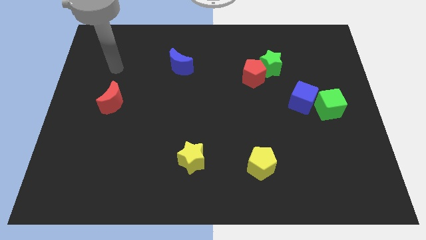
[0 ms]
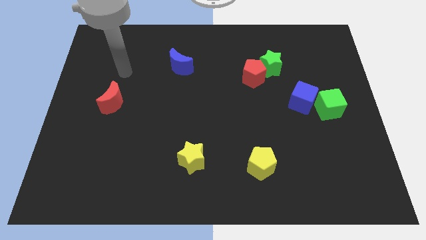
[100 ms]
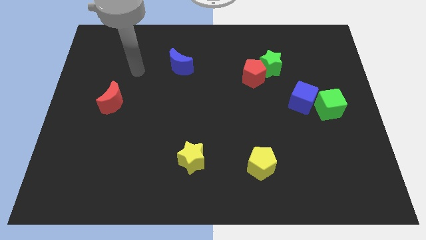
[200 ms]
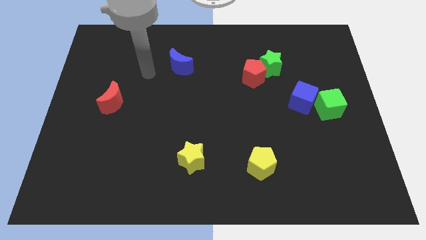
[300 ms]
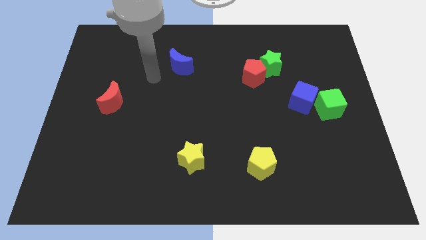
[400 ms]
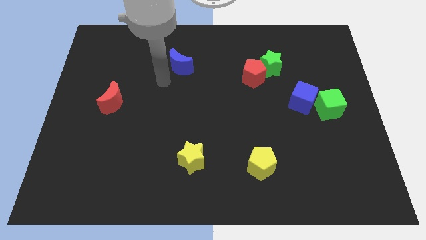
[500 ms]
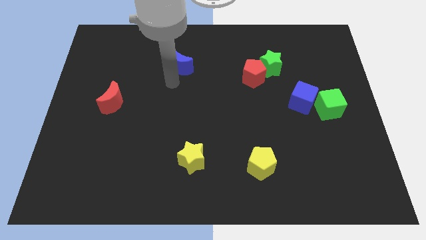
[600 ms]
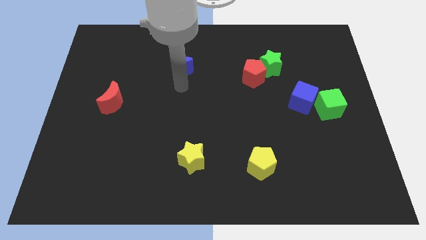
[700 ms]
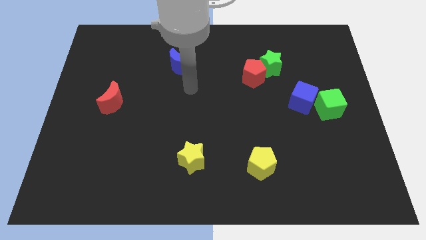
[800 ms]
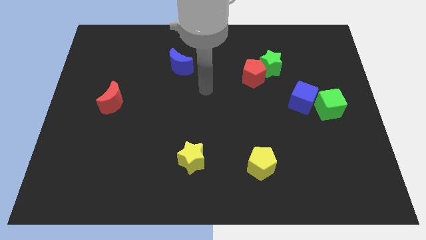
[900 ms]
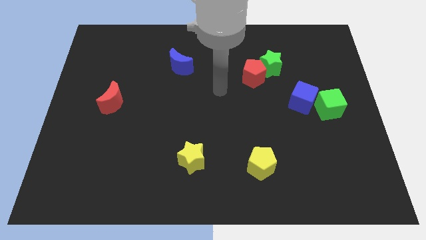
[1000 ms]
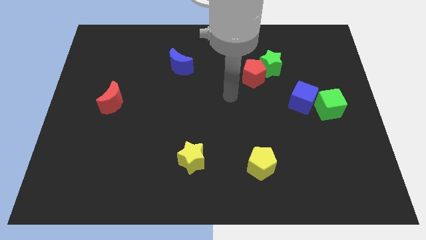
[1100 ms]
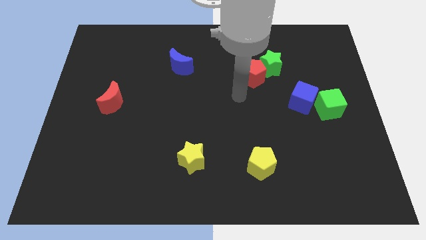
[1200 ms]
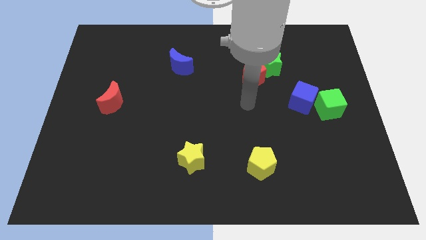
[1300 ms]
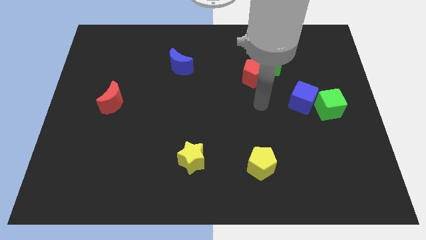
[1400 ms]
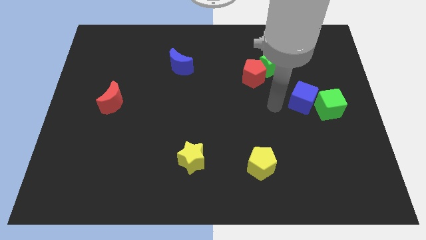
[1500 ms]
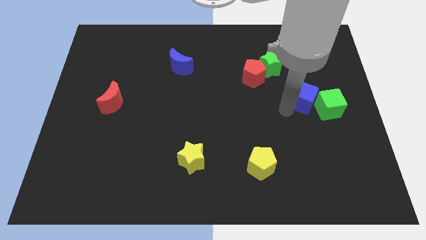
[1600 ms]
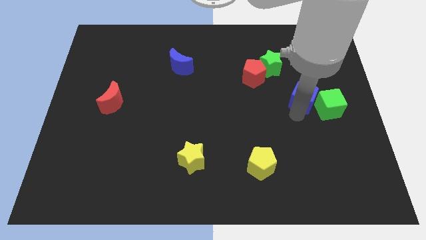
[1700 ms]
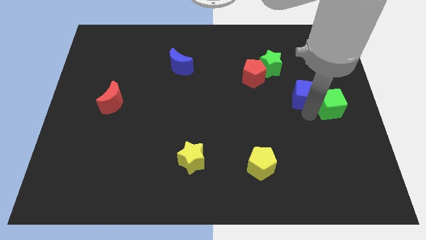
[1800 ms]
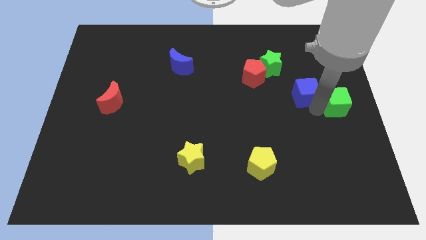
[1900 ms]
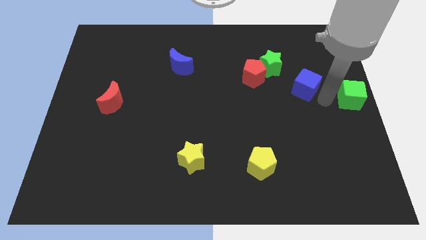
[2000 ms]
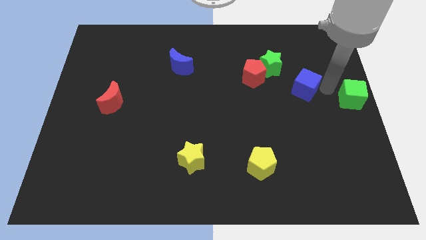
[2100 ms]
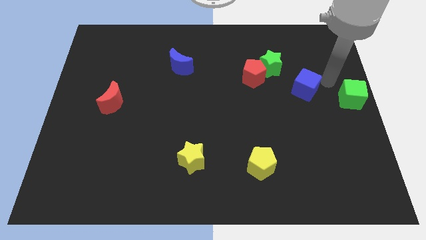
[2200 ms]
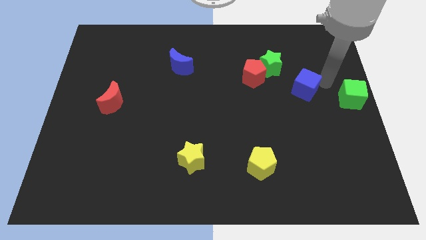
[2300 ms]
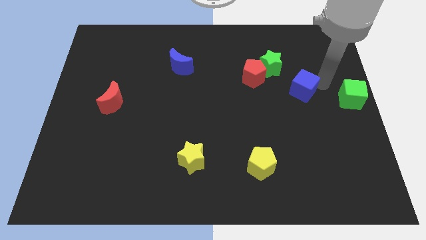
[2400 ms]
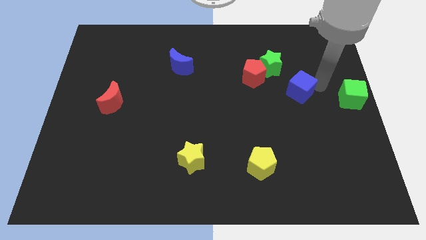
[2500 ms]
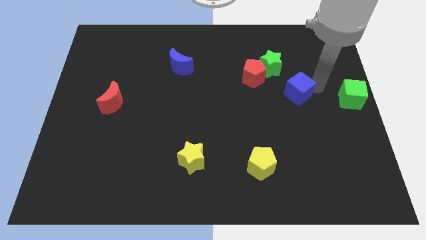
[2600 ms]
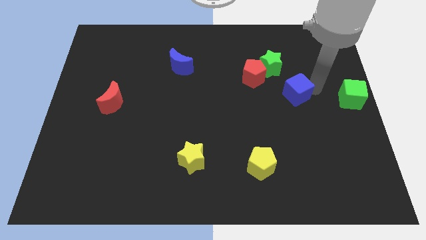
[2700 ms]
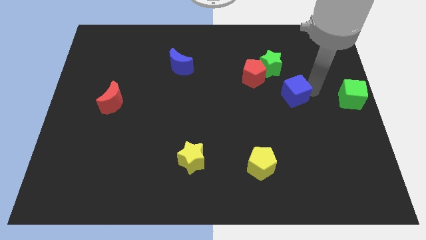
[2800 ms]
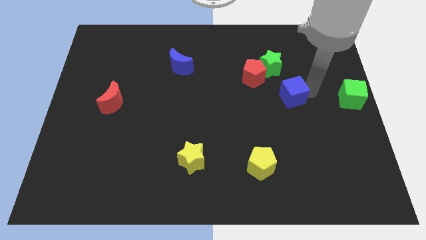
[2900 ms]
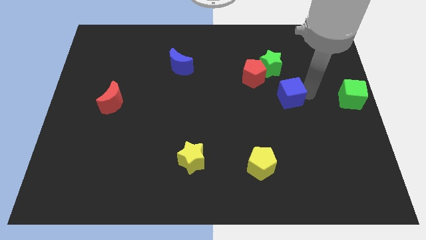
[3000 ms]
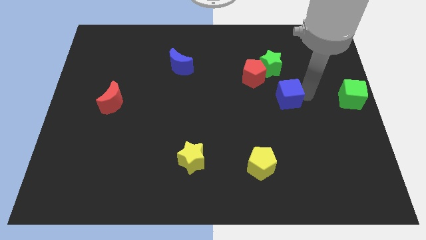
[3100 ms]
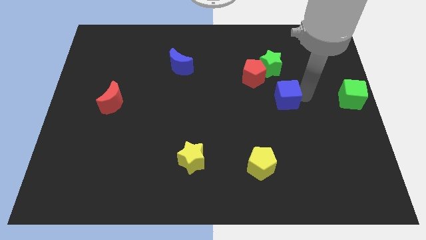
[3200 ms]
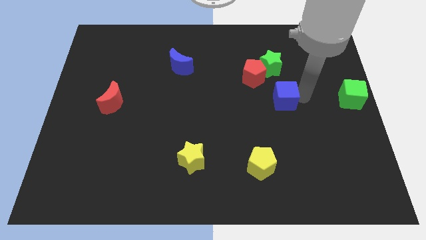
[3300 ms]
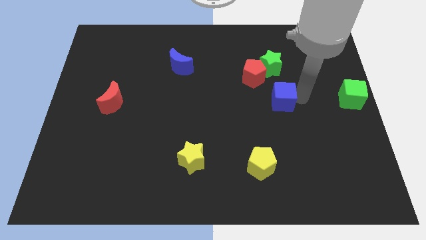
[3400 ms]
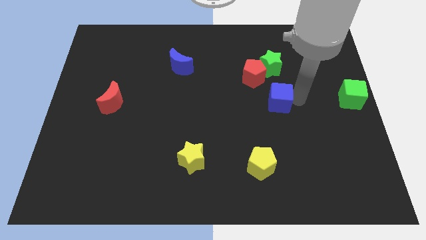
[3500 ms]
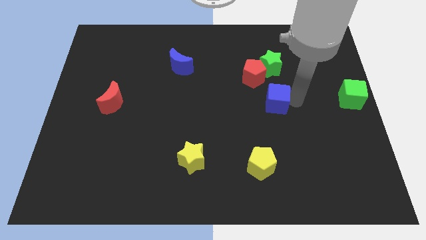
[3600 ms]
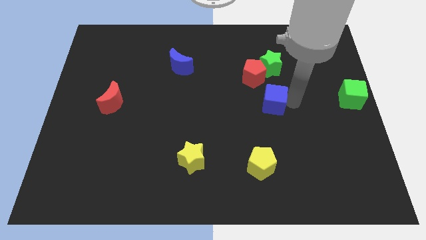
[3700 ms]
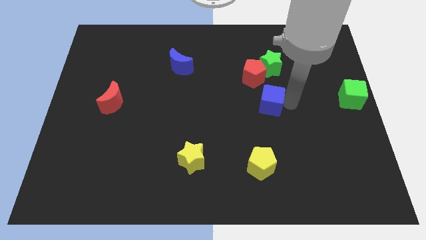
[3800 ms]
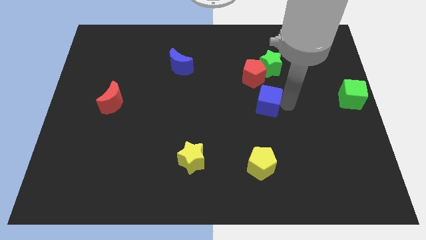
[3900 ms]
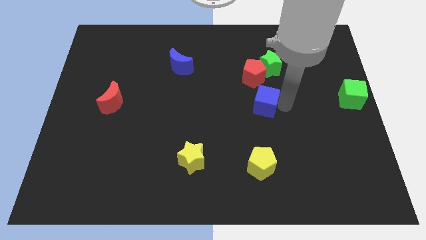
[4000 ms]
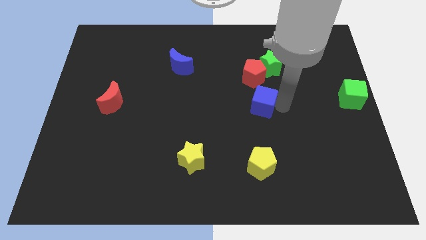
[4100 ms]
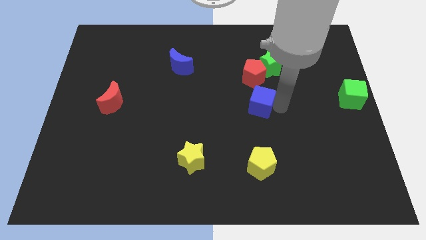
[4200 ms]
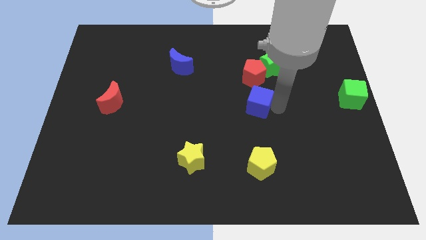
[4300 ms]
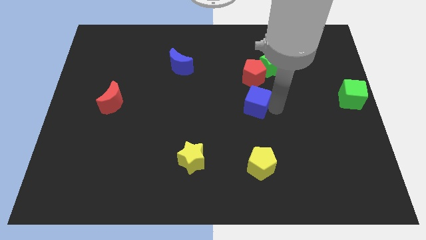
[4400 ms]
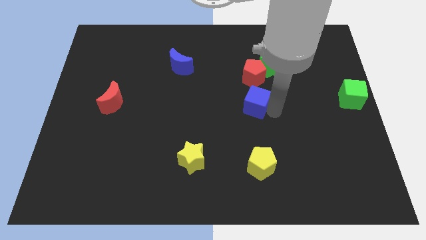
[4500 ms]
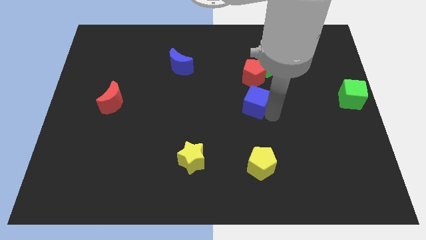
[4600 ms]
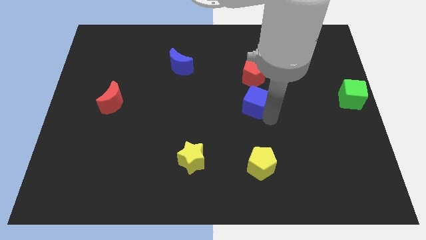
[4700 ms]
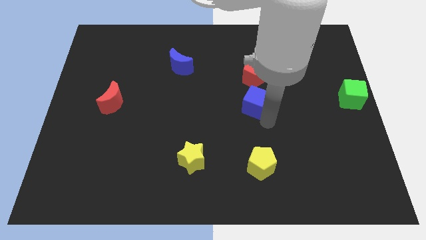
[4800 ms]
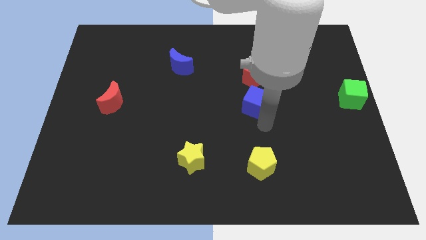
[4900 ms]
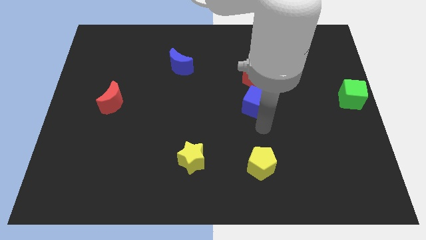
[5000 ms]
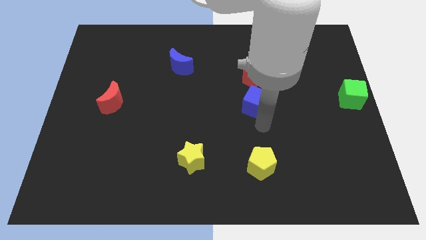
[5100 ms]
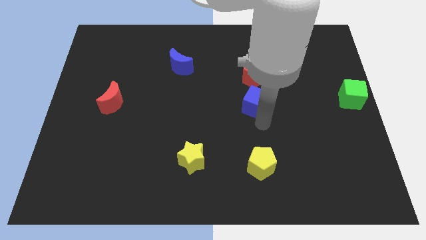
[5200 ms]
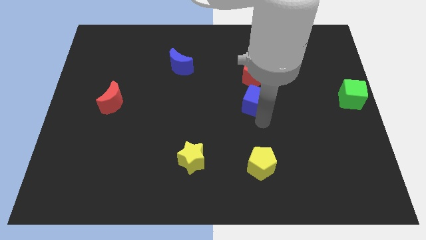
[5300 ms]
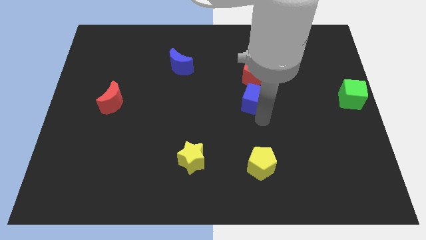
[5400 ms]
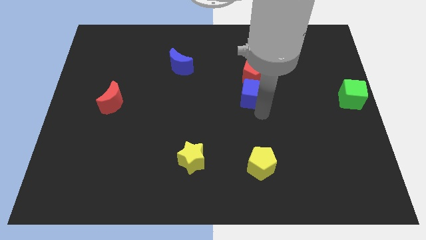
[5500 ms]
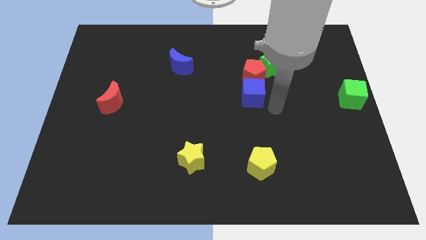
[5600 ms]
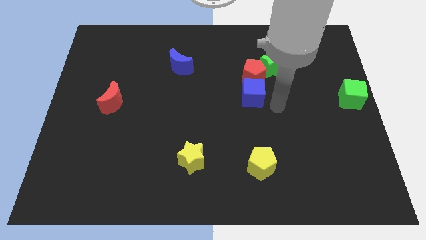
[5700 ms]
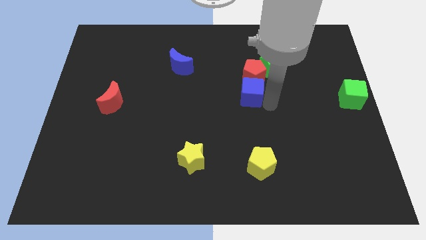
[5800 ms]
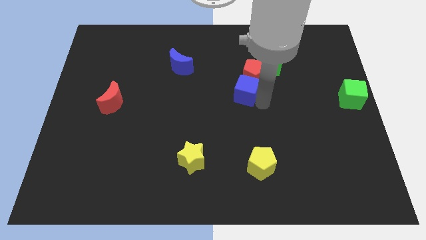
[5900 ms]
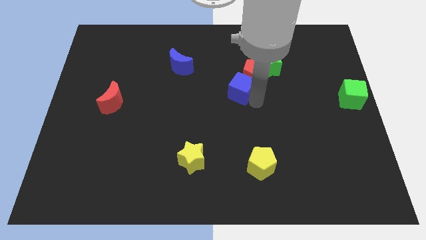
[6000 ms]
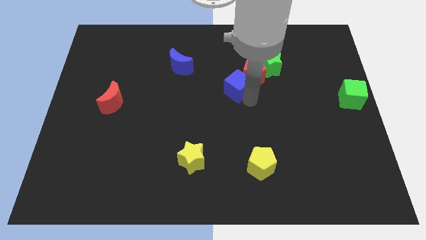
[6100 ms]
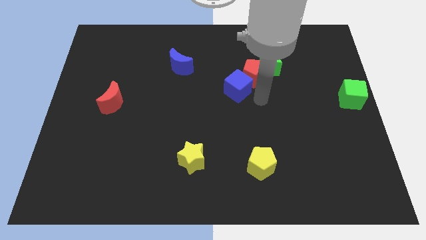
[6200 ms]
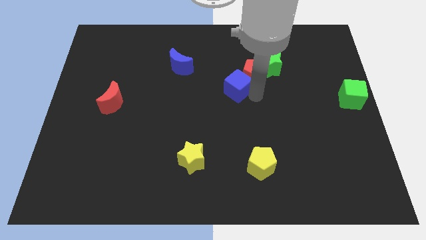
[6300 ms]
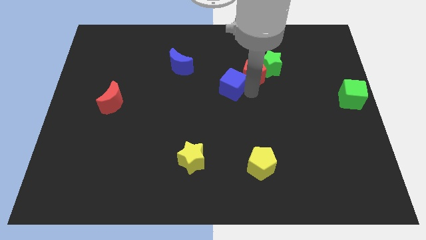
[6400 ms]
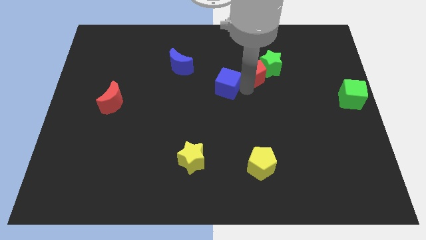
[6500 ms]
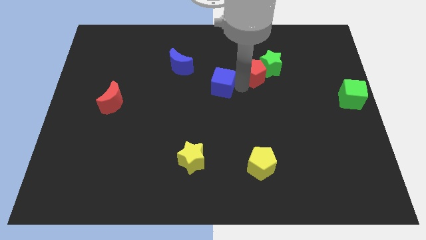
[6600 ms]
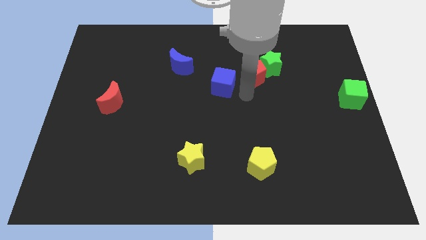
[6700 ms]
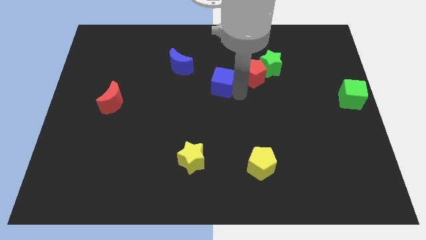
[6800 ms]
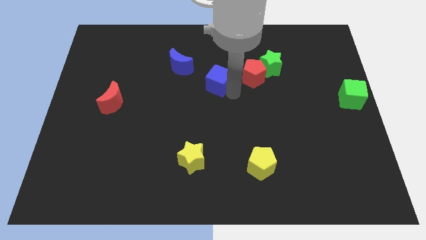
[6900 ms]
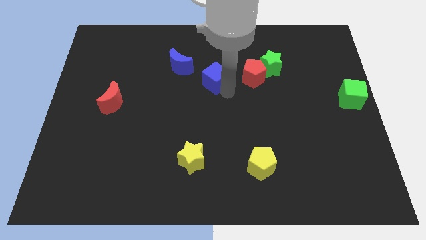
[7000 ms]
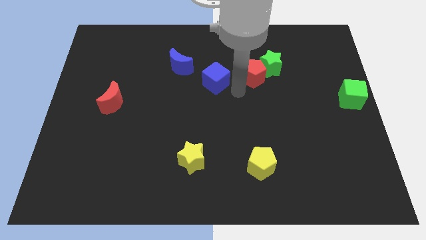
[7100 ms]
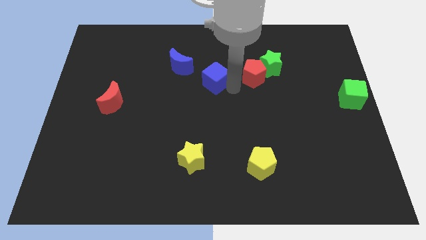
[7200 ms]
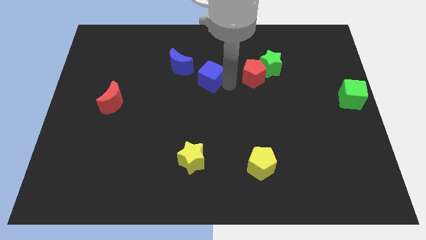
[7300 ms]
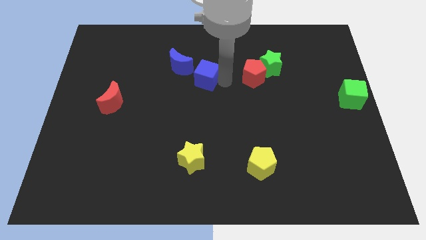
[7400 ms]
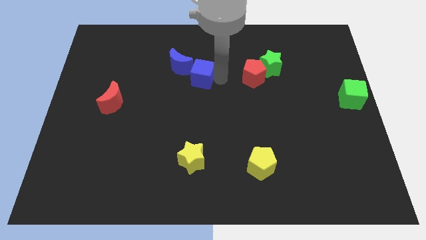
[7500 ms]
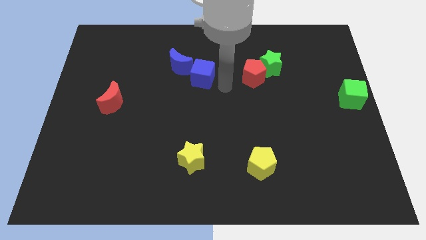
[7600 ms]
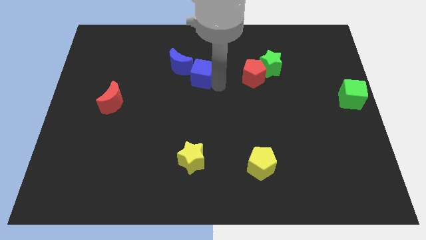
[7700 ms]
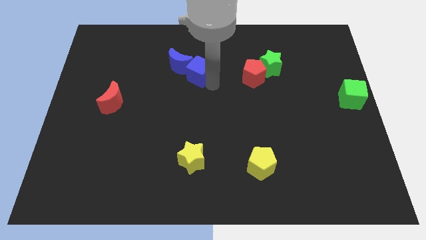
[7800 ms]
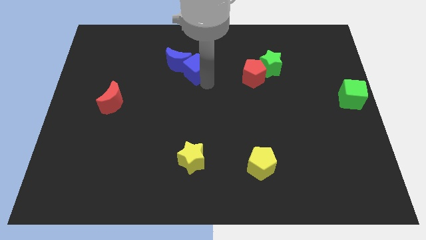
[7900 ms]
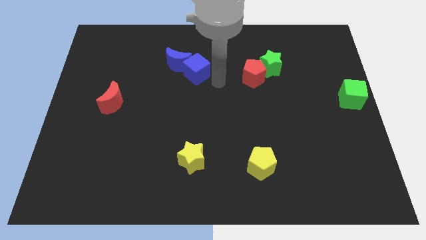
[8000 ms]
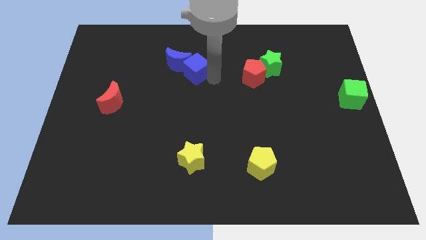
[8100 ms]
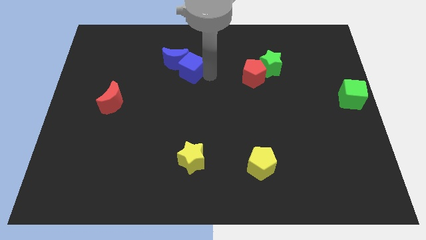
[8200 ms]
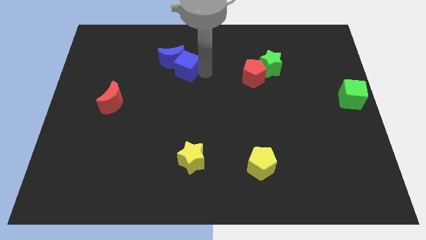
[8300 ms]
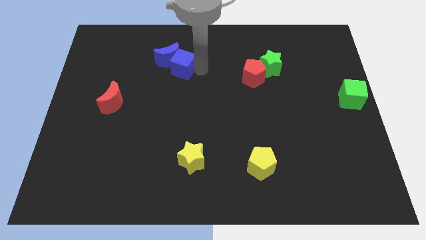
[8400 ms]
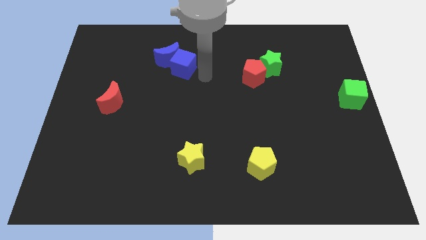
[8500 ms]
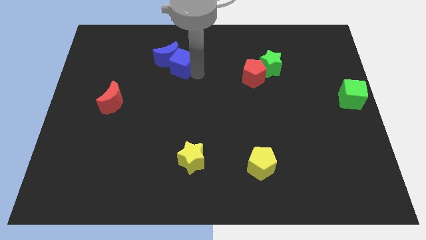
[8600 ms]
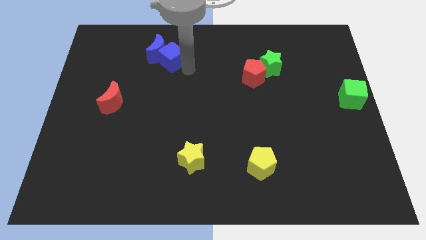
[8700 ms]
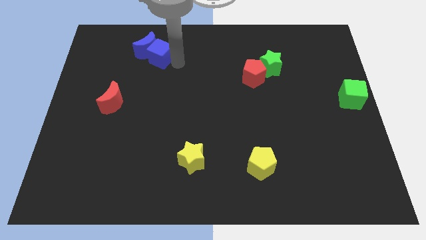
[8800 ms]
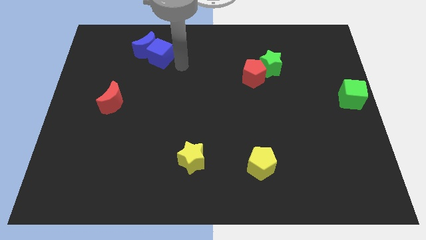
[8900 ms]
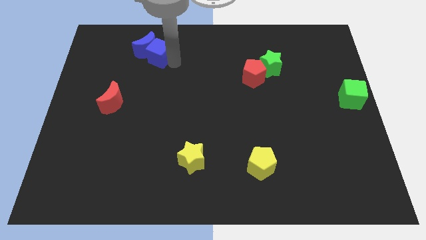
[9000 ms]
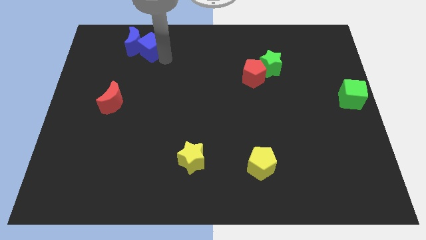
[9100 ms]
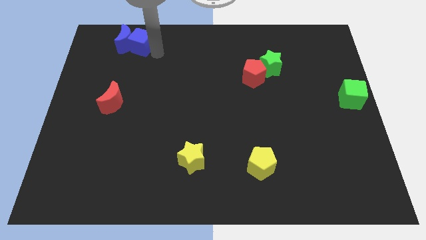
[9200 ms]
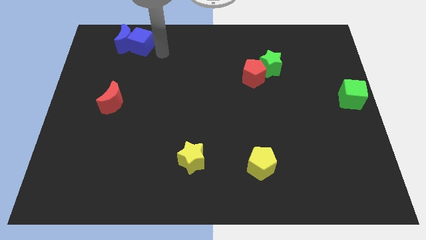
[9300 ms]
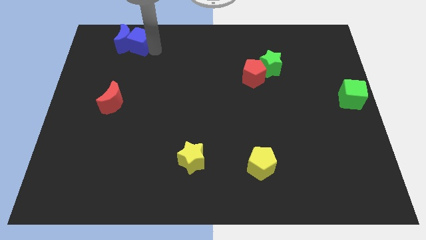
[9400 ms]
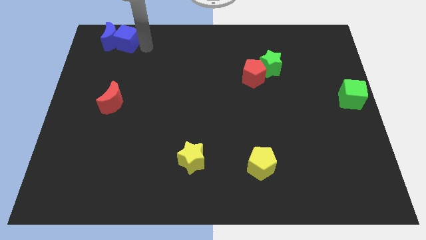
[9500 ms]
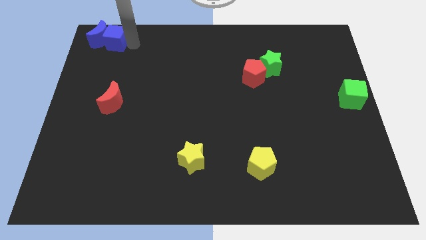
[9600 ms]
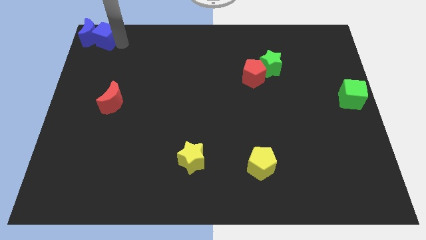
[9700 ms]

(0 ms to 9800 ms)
push the blue cube to the top left of the board
